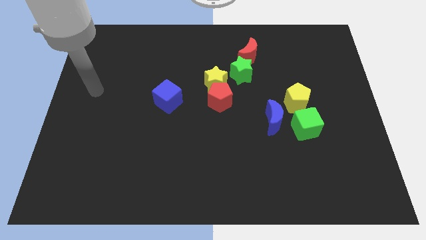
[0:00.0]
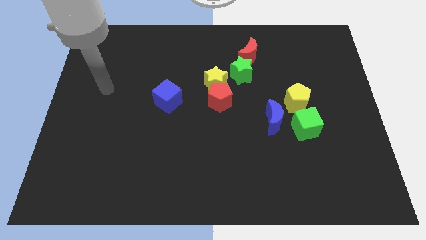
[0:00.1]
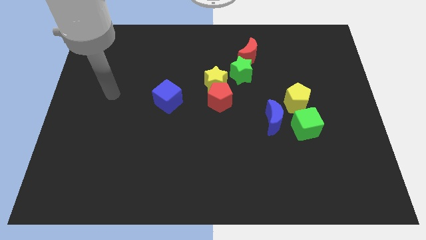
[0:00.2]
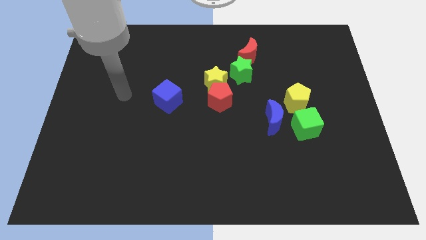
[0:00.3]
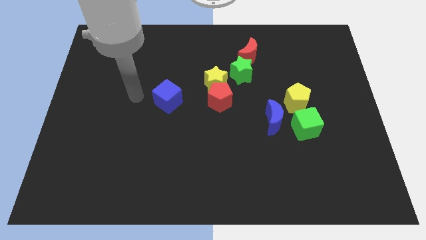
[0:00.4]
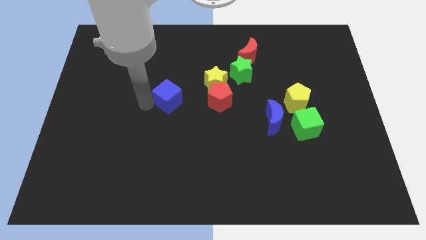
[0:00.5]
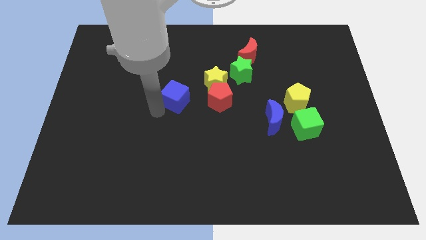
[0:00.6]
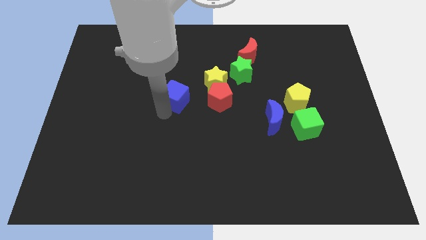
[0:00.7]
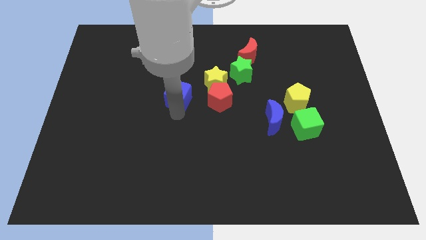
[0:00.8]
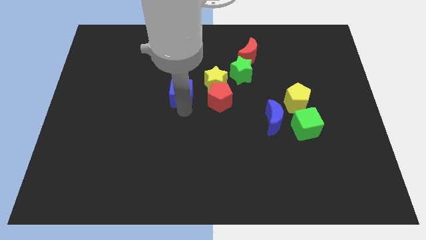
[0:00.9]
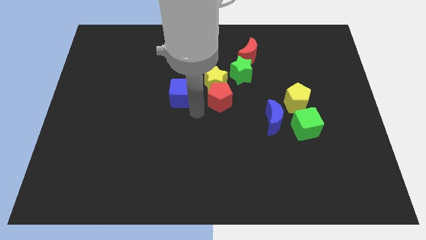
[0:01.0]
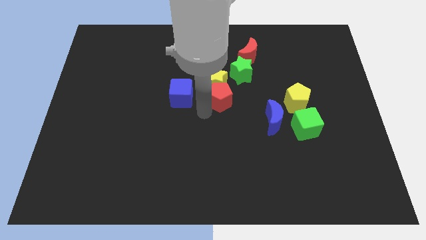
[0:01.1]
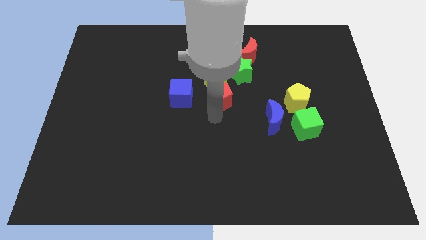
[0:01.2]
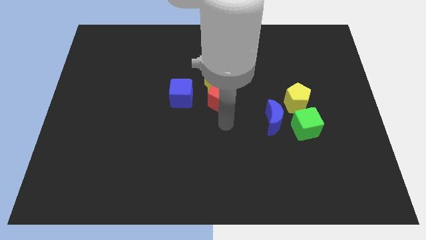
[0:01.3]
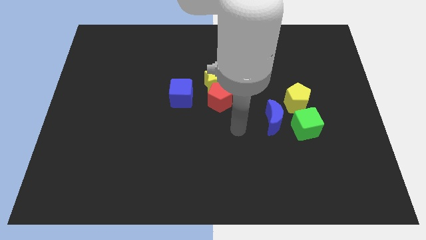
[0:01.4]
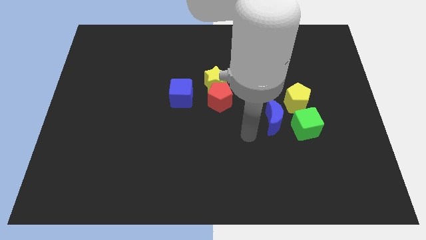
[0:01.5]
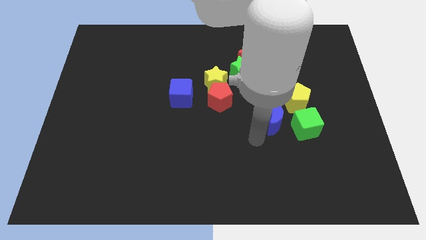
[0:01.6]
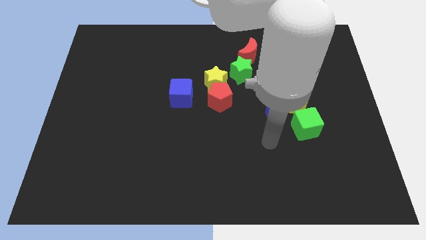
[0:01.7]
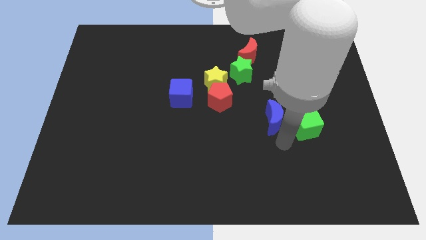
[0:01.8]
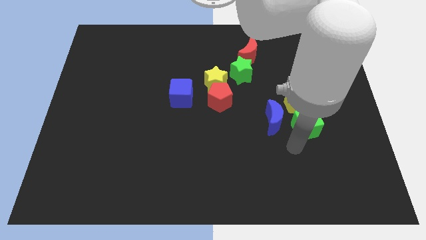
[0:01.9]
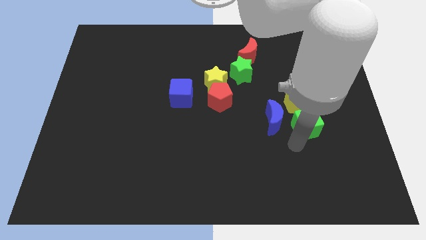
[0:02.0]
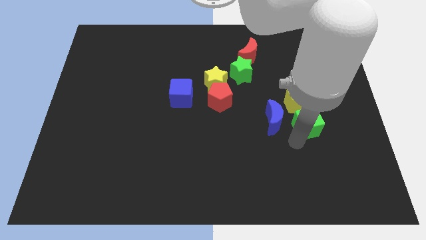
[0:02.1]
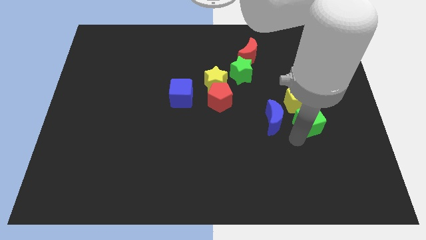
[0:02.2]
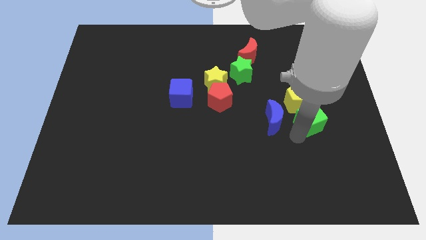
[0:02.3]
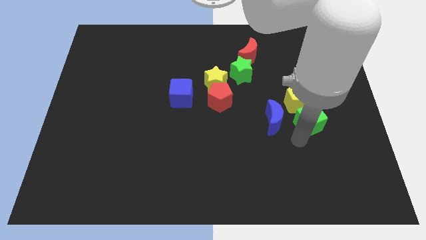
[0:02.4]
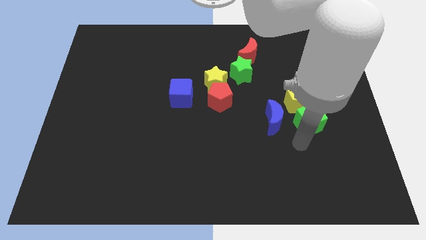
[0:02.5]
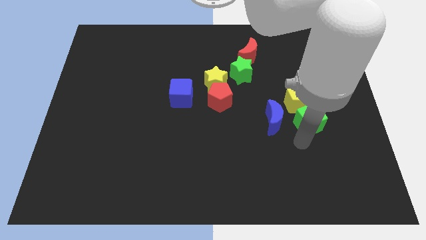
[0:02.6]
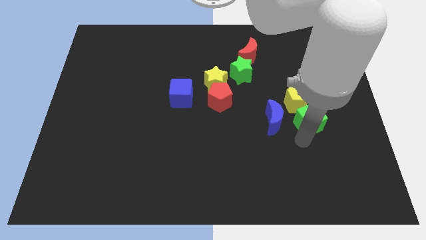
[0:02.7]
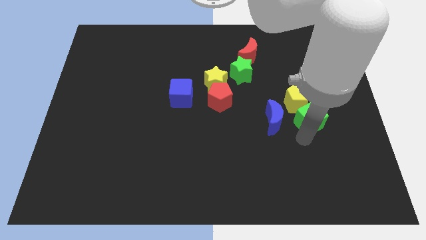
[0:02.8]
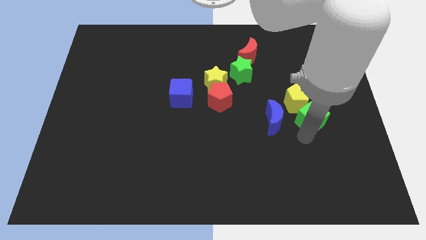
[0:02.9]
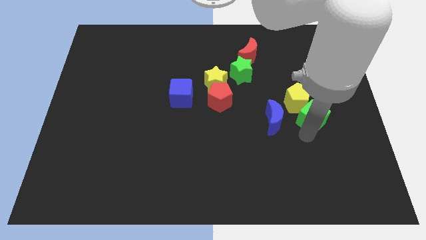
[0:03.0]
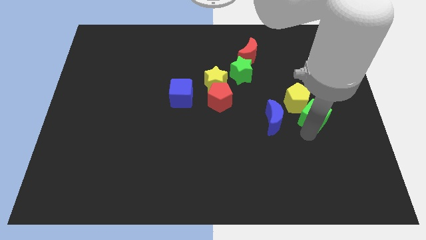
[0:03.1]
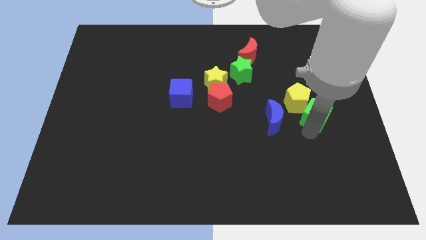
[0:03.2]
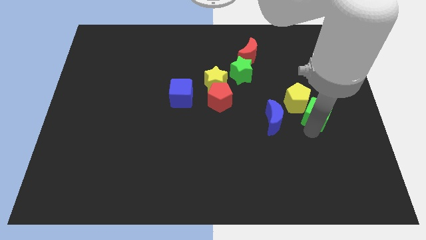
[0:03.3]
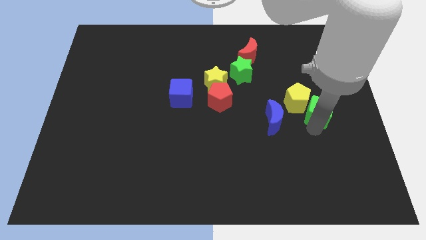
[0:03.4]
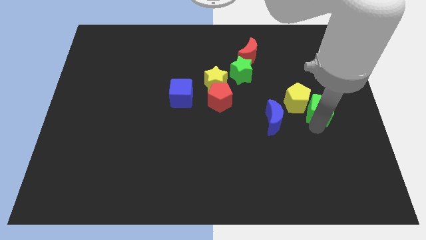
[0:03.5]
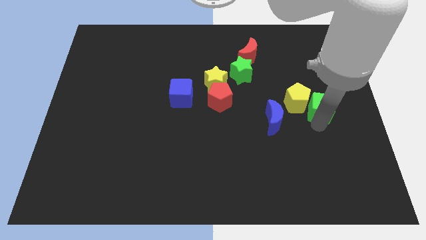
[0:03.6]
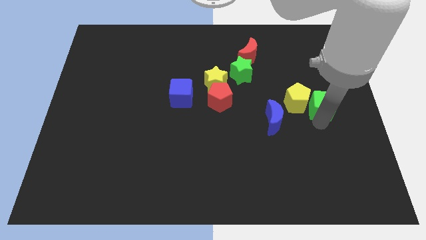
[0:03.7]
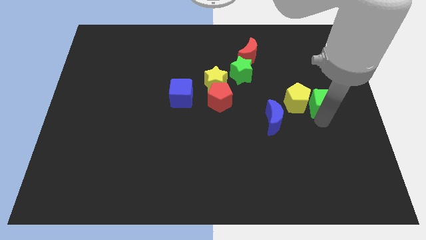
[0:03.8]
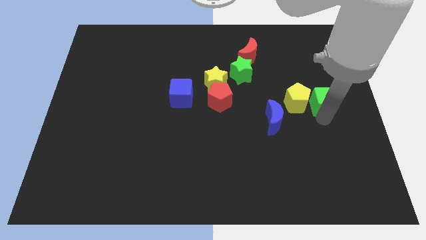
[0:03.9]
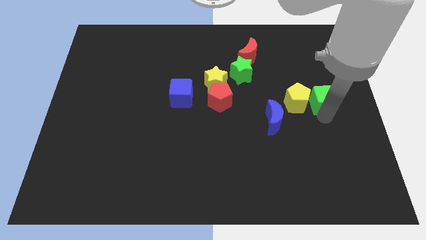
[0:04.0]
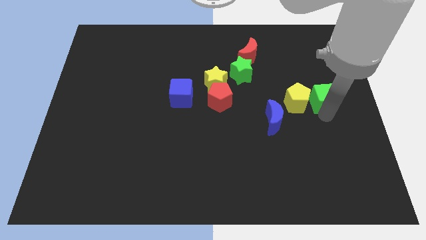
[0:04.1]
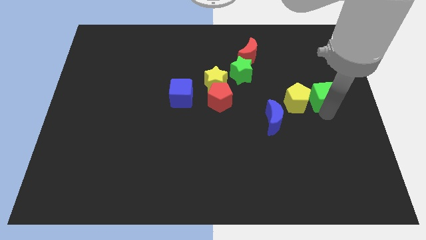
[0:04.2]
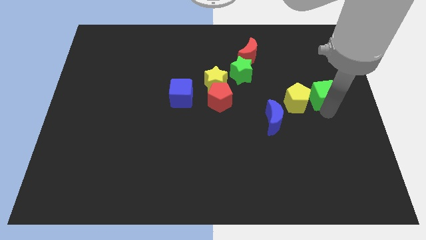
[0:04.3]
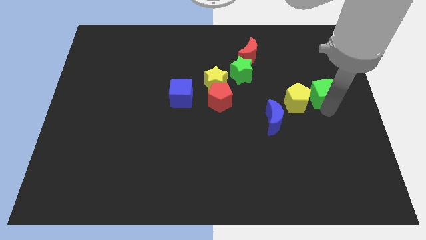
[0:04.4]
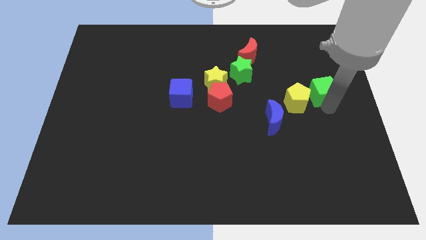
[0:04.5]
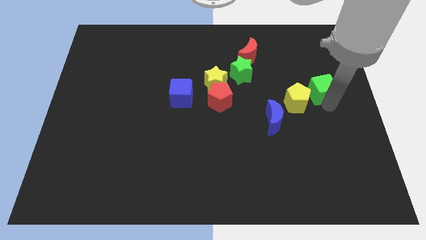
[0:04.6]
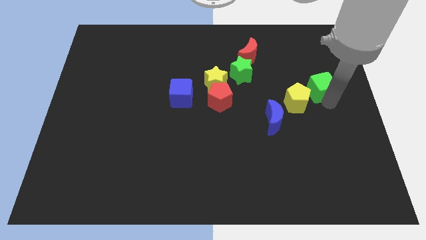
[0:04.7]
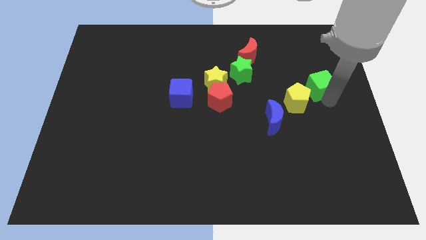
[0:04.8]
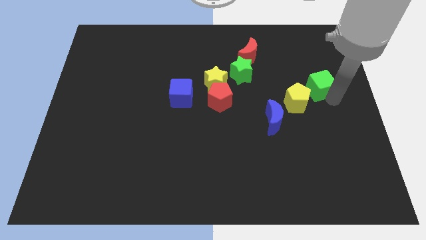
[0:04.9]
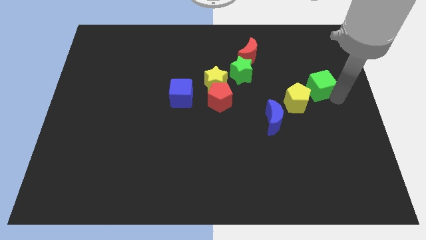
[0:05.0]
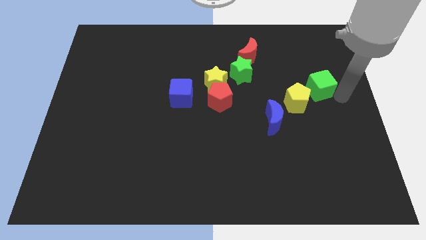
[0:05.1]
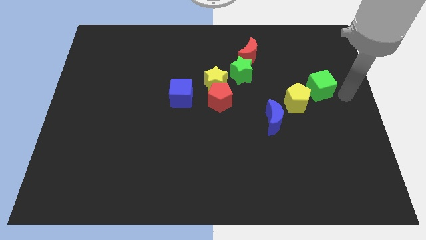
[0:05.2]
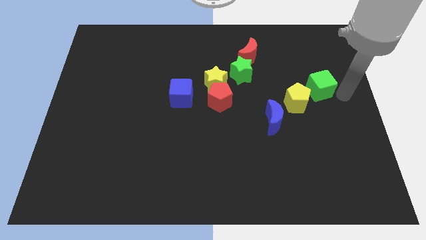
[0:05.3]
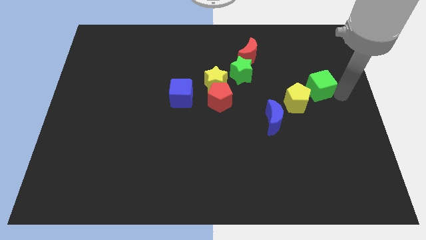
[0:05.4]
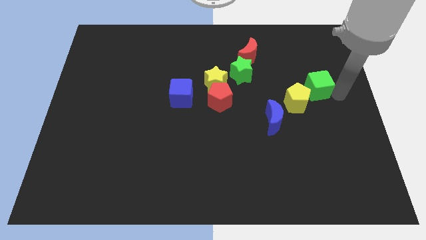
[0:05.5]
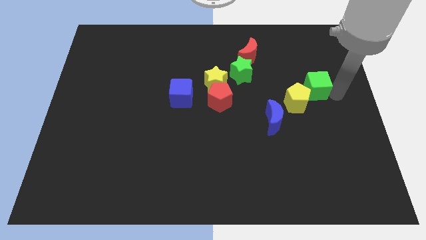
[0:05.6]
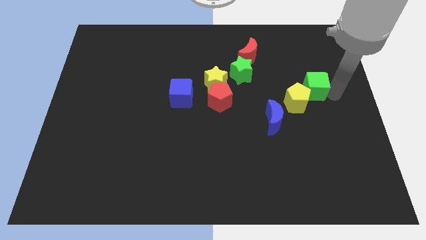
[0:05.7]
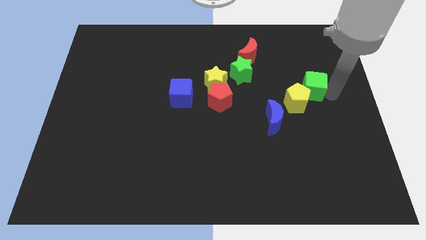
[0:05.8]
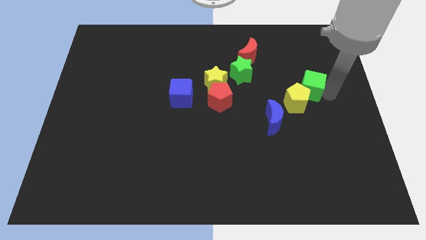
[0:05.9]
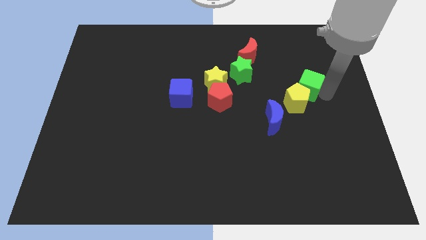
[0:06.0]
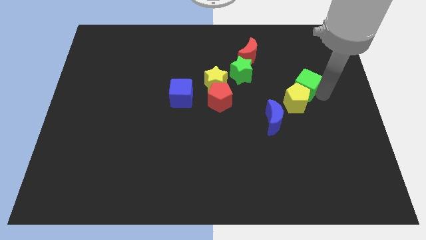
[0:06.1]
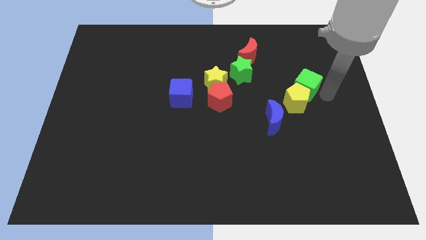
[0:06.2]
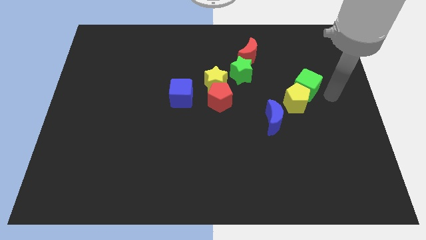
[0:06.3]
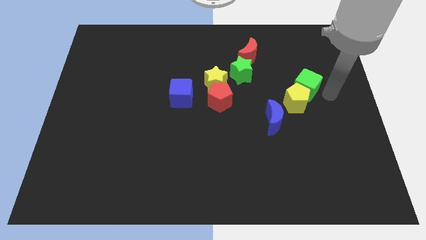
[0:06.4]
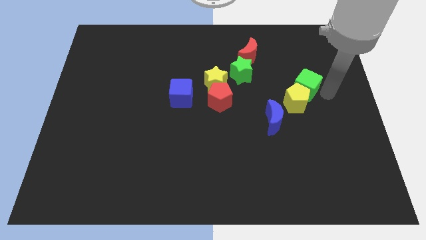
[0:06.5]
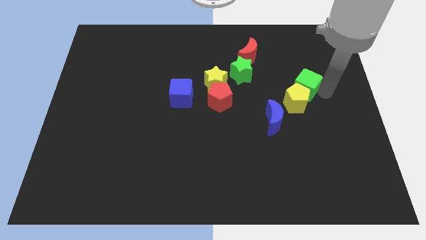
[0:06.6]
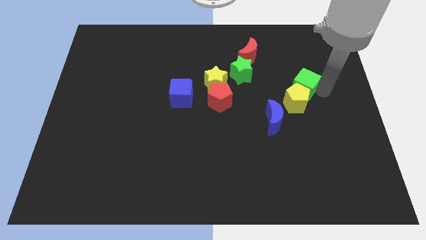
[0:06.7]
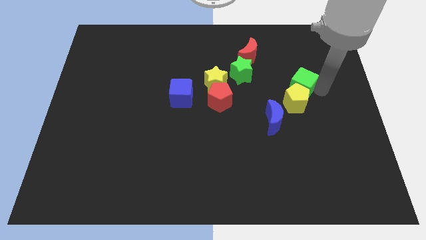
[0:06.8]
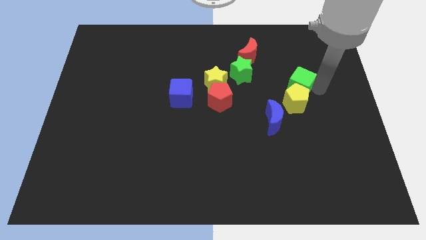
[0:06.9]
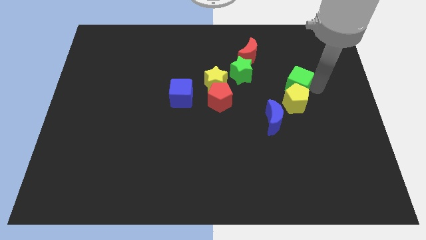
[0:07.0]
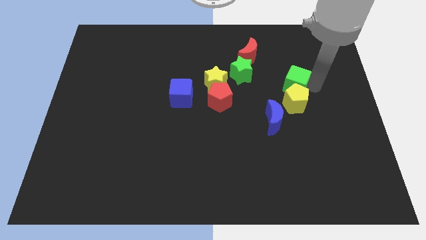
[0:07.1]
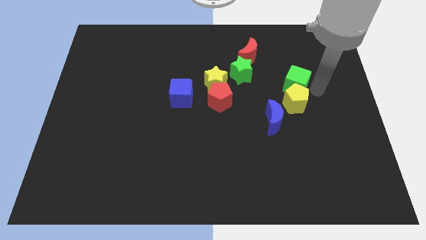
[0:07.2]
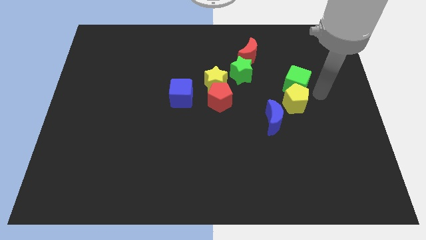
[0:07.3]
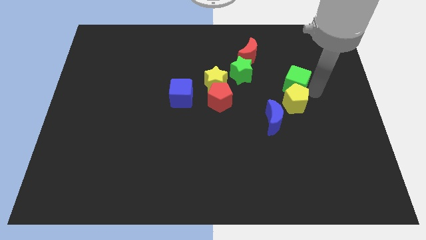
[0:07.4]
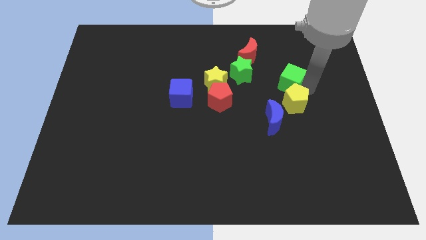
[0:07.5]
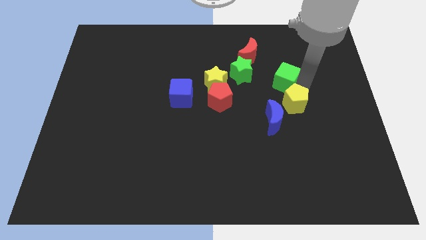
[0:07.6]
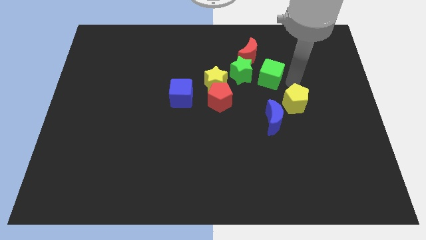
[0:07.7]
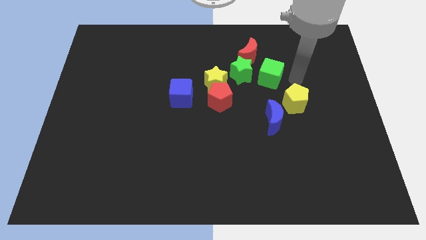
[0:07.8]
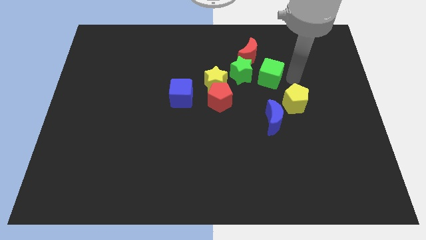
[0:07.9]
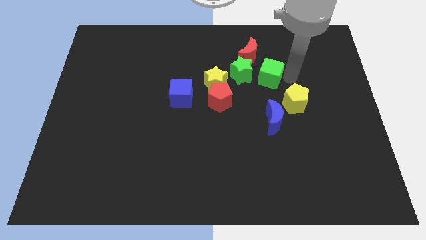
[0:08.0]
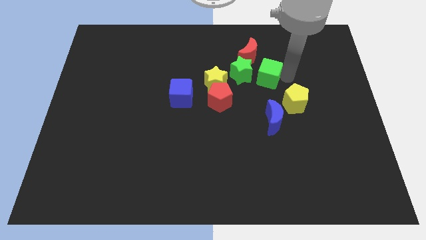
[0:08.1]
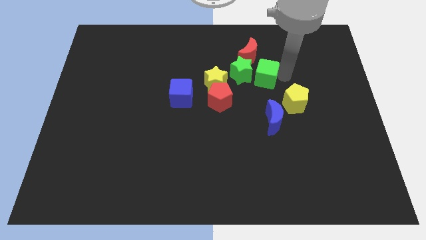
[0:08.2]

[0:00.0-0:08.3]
slide the green cube close to the green star
